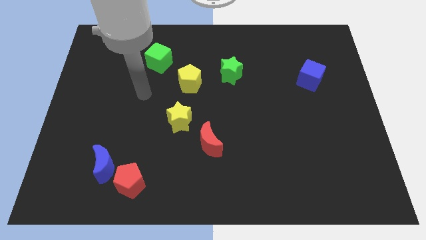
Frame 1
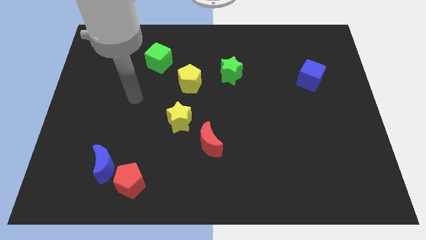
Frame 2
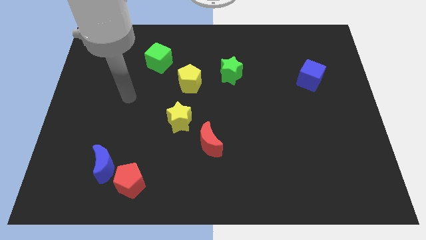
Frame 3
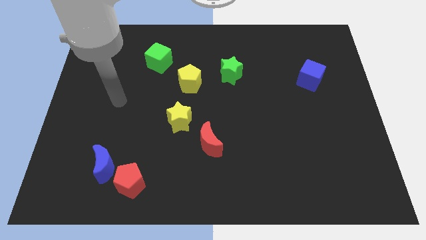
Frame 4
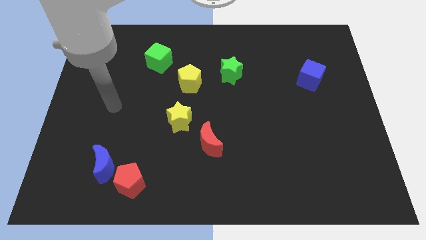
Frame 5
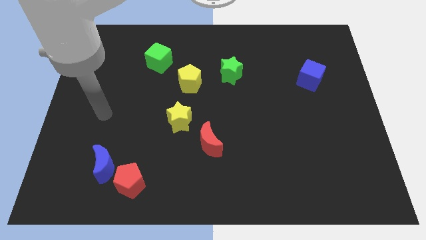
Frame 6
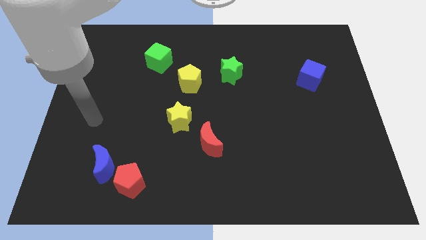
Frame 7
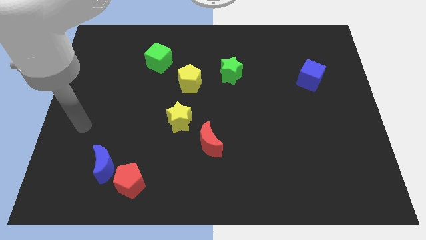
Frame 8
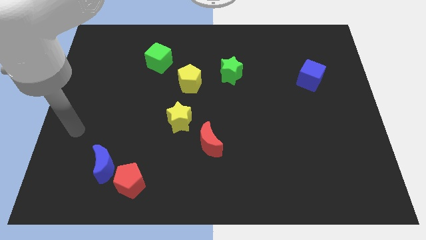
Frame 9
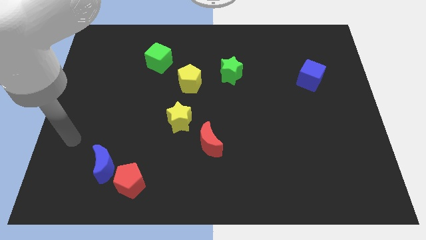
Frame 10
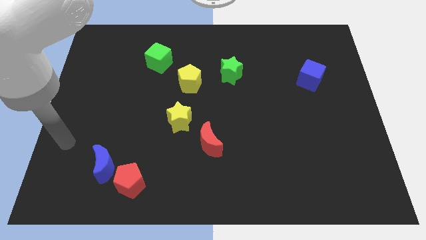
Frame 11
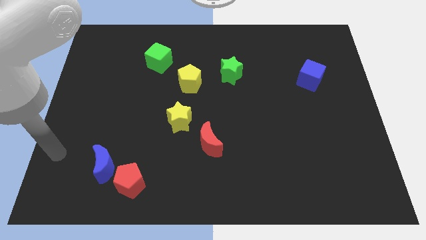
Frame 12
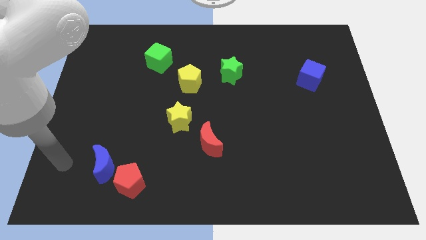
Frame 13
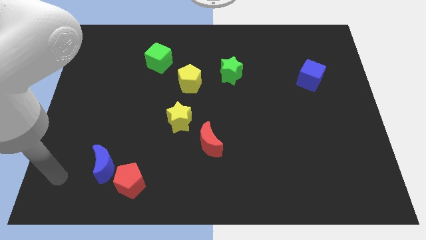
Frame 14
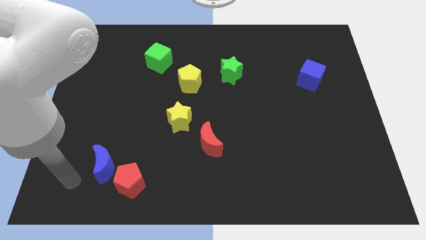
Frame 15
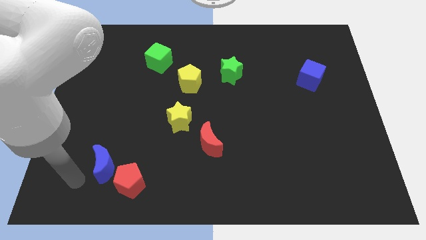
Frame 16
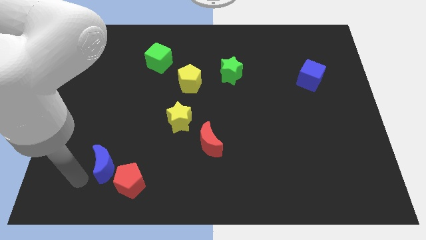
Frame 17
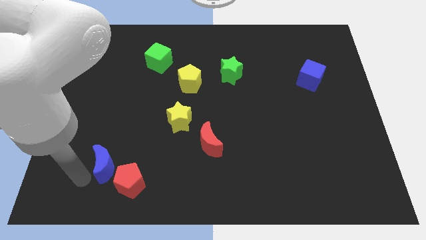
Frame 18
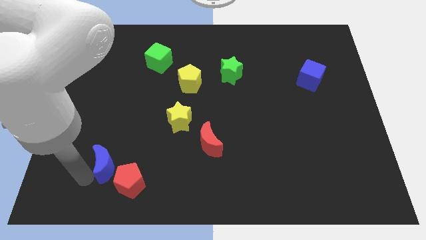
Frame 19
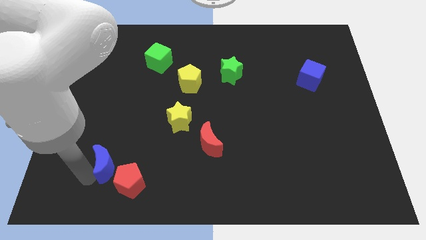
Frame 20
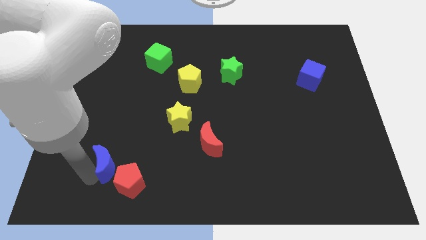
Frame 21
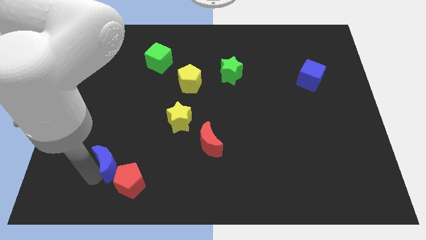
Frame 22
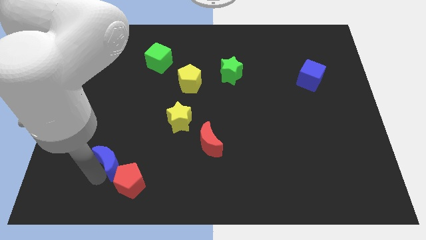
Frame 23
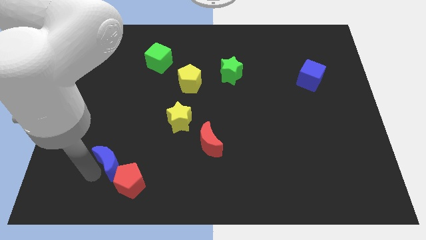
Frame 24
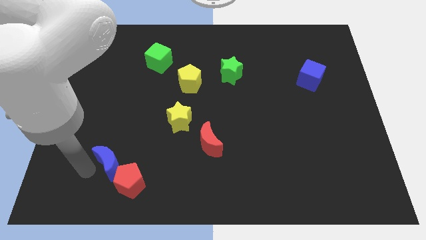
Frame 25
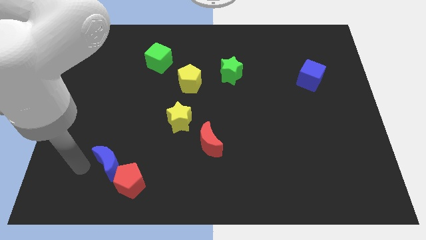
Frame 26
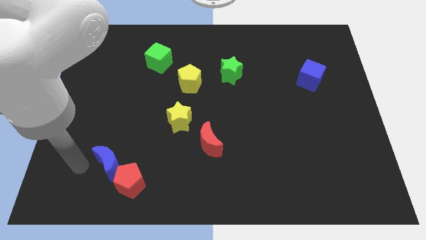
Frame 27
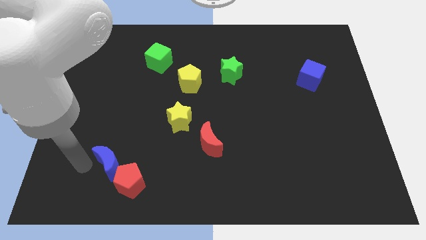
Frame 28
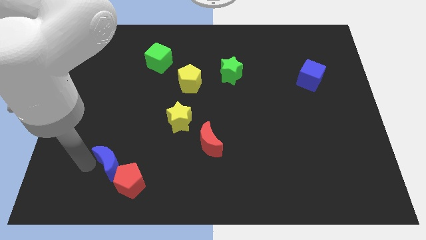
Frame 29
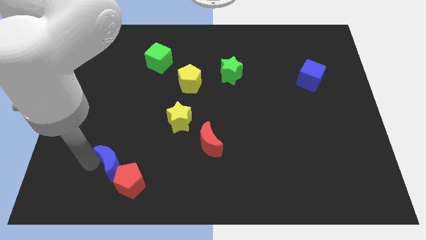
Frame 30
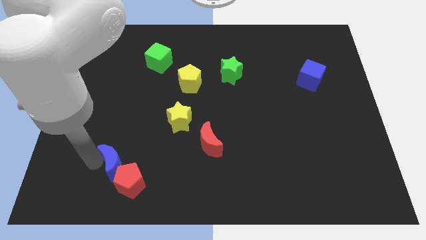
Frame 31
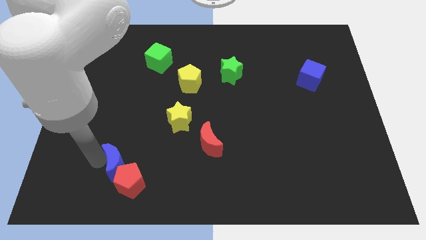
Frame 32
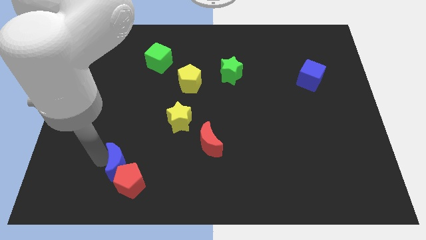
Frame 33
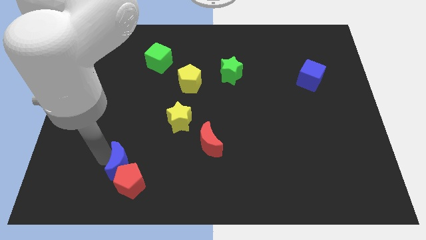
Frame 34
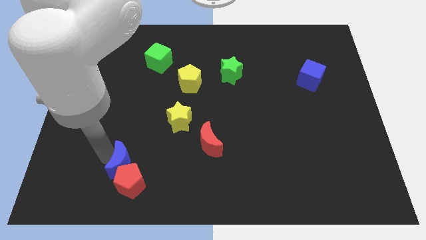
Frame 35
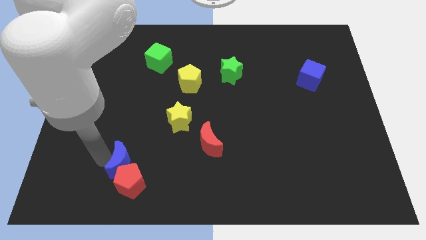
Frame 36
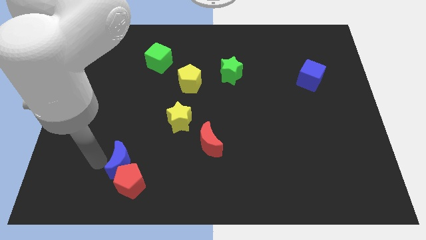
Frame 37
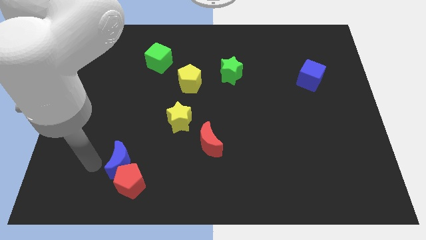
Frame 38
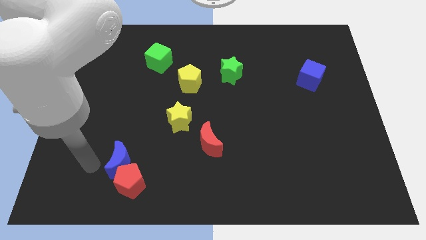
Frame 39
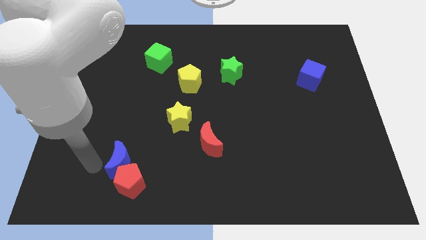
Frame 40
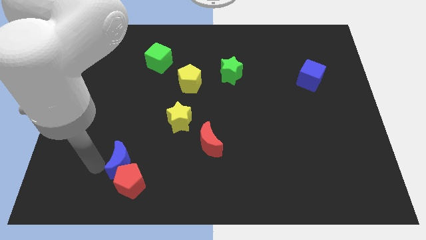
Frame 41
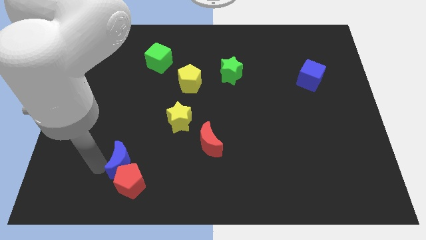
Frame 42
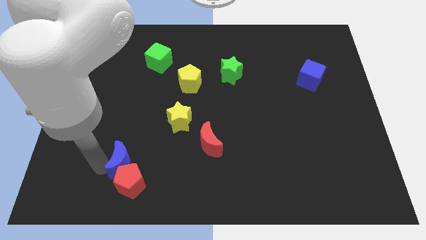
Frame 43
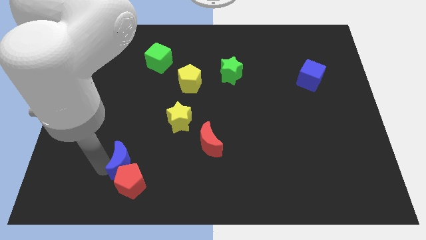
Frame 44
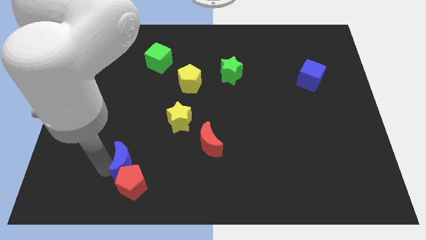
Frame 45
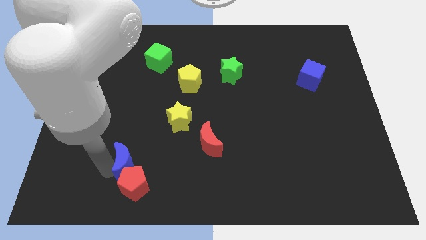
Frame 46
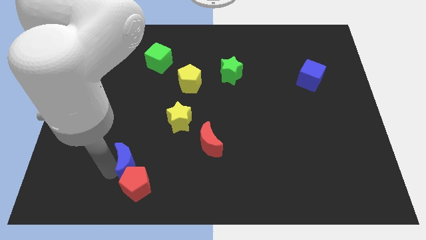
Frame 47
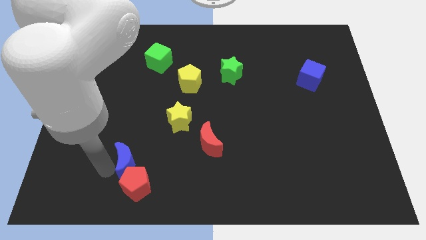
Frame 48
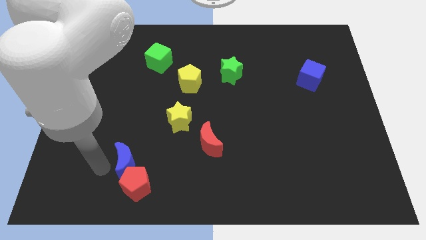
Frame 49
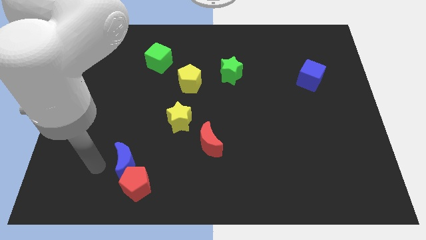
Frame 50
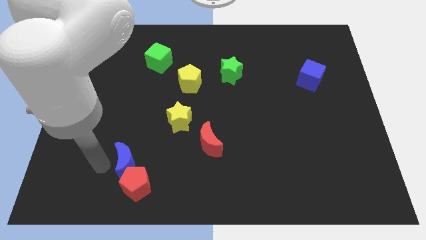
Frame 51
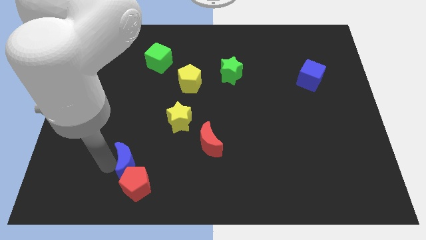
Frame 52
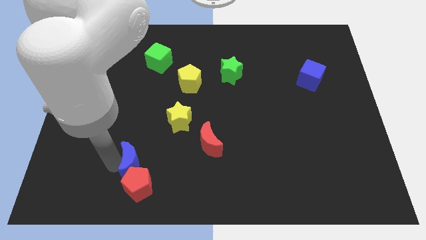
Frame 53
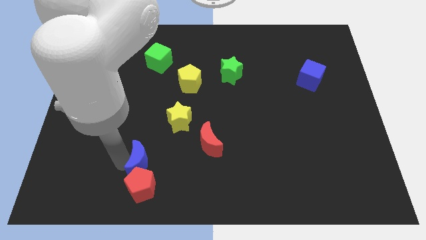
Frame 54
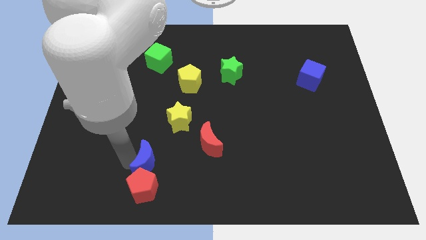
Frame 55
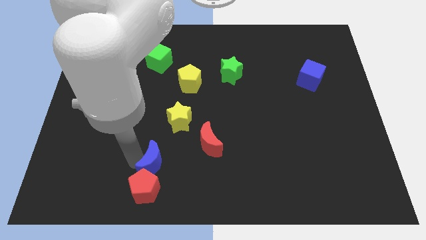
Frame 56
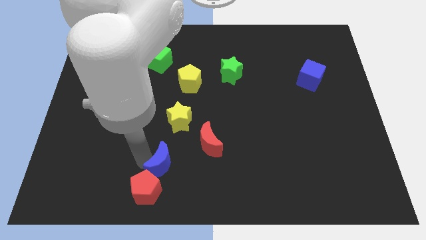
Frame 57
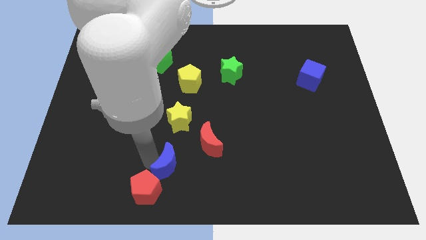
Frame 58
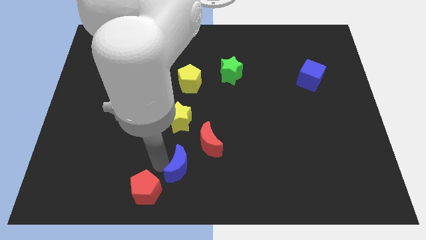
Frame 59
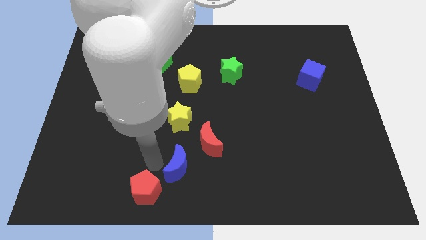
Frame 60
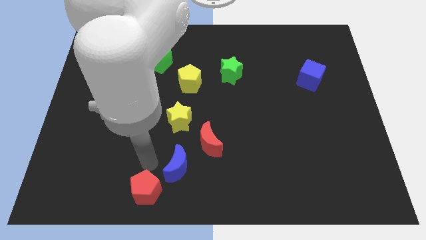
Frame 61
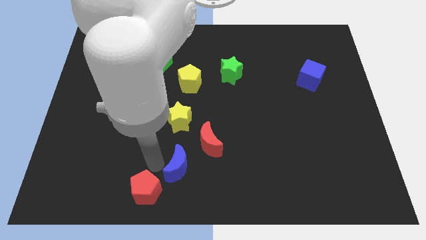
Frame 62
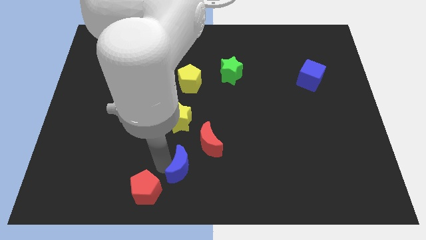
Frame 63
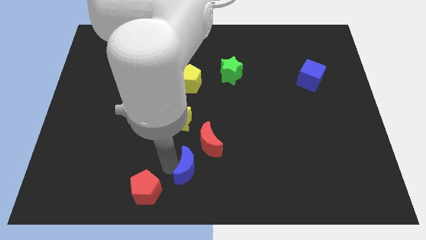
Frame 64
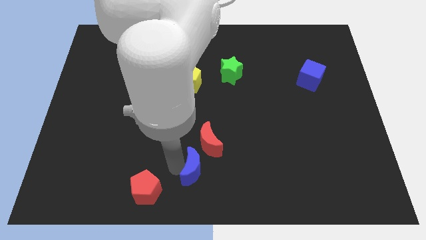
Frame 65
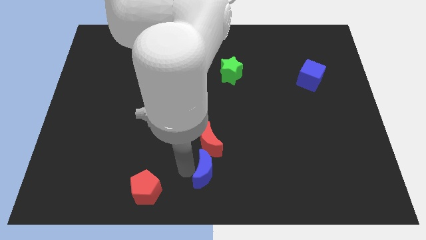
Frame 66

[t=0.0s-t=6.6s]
push the blue moon to the right

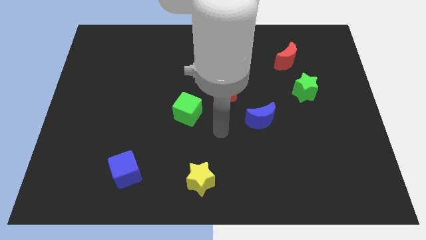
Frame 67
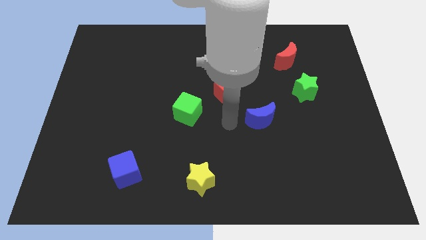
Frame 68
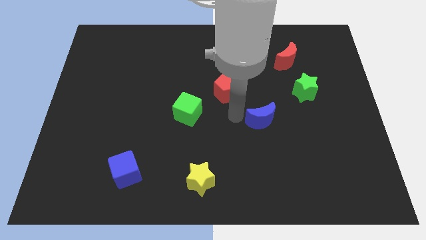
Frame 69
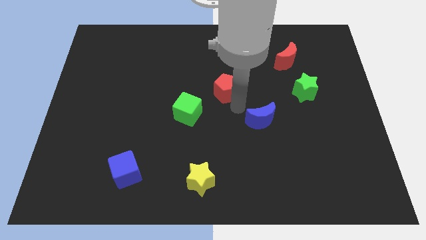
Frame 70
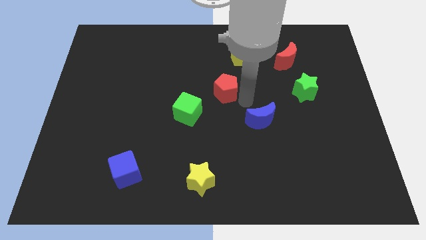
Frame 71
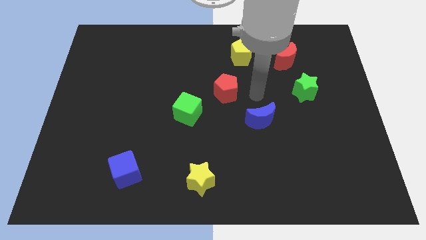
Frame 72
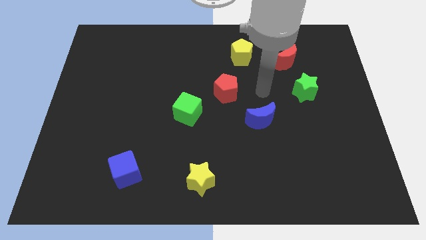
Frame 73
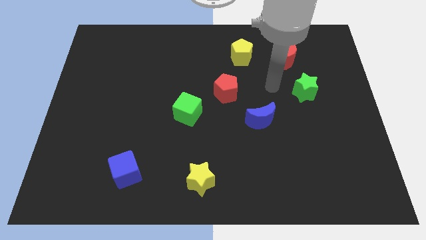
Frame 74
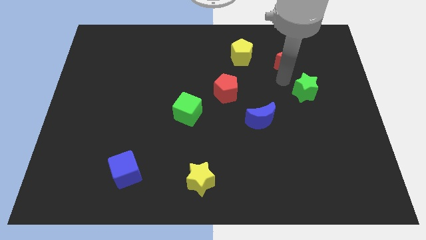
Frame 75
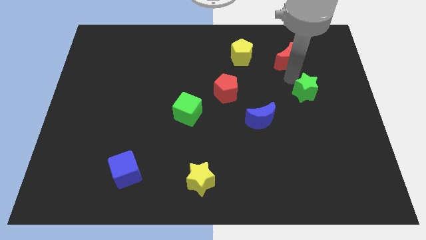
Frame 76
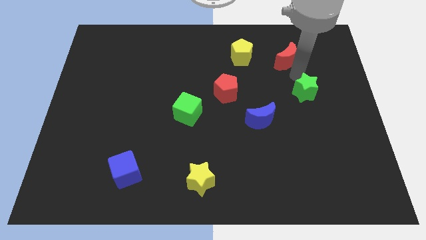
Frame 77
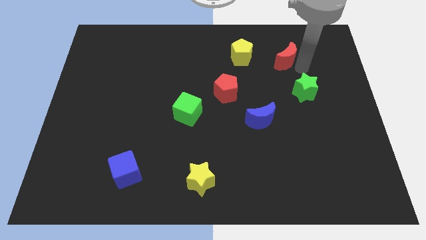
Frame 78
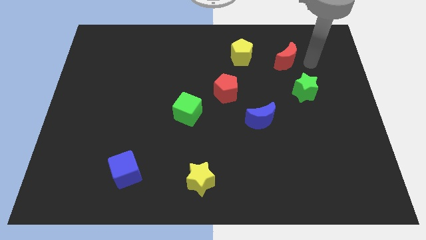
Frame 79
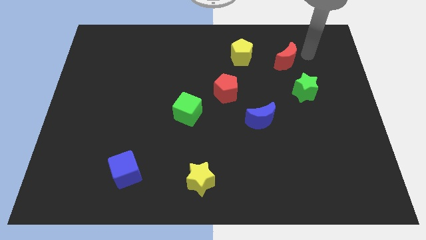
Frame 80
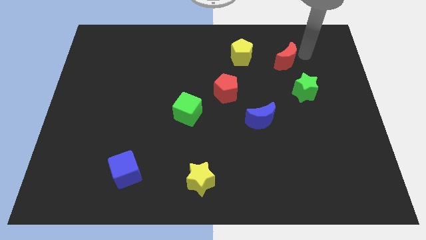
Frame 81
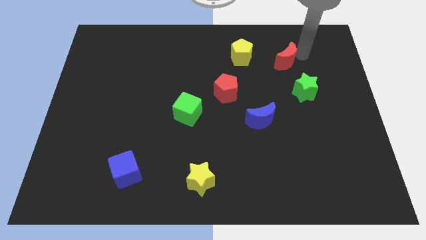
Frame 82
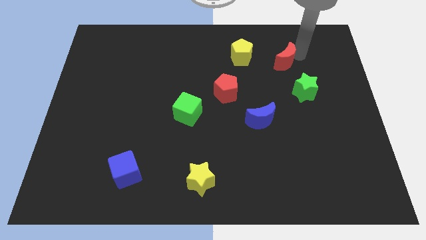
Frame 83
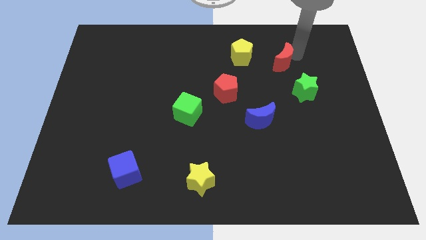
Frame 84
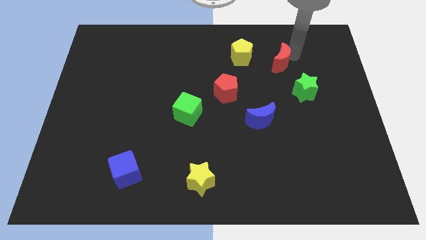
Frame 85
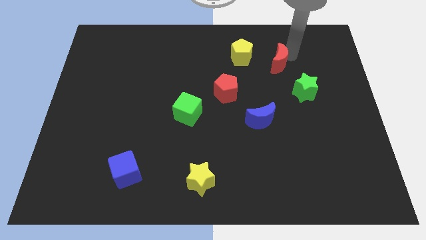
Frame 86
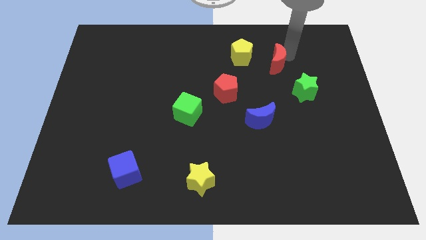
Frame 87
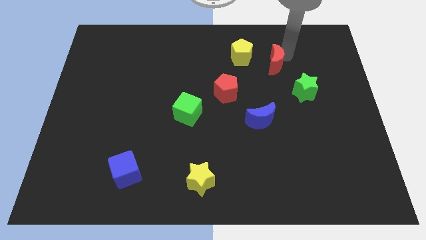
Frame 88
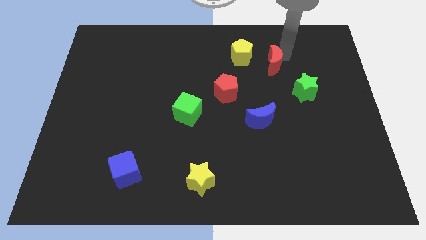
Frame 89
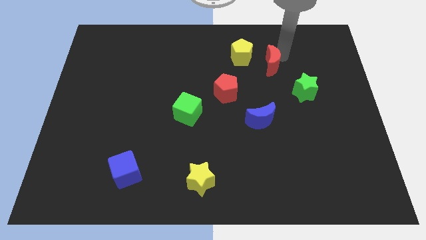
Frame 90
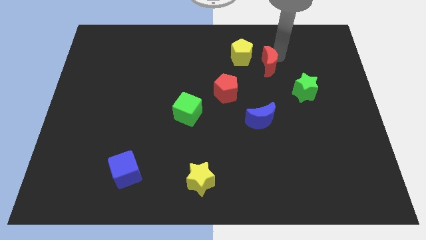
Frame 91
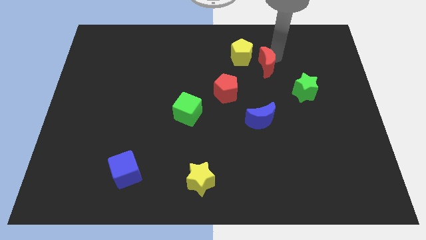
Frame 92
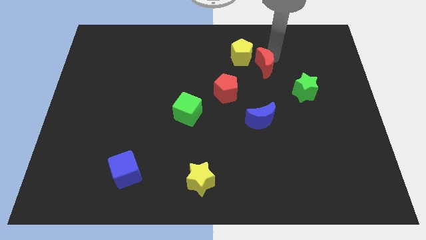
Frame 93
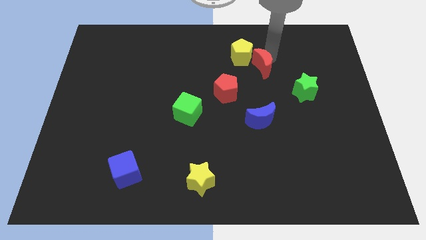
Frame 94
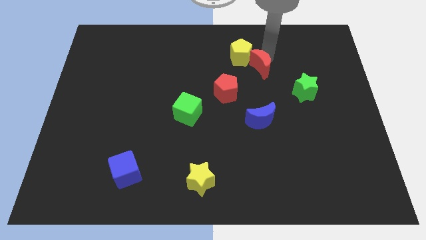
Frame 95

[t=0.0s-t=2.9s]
push the red moon left a little bit
